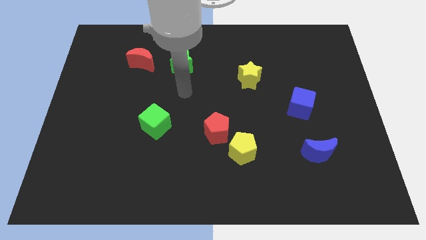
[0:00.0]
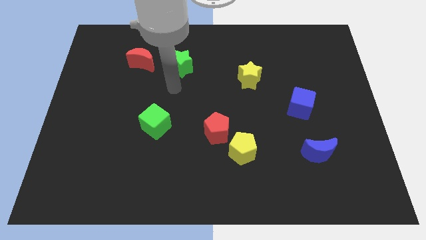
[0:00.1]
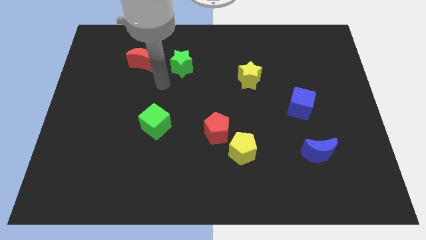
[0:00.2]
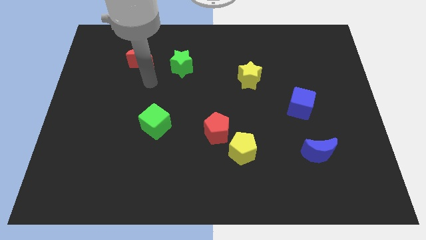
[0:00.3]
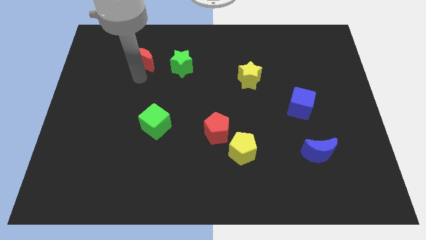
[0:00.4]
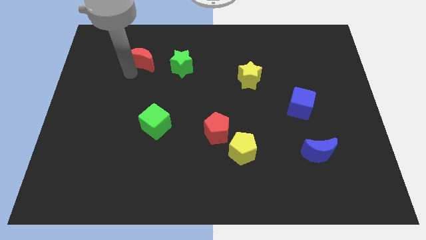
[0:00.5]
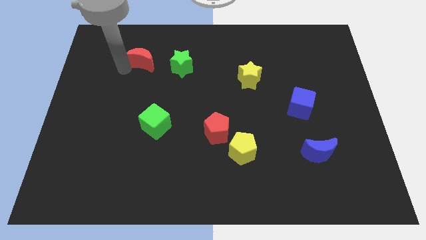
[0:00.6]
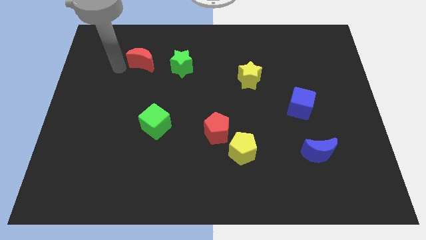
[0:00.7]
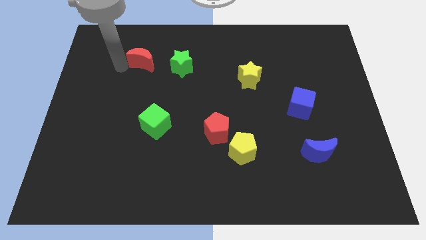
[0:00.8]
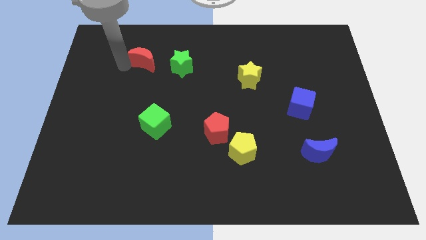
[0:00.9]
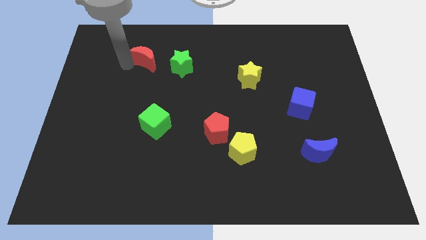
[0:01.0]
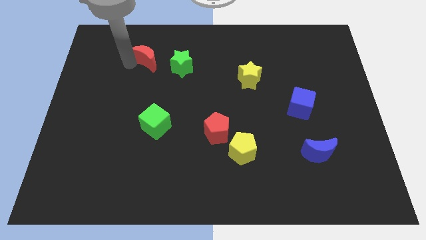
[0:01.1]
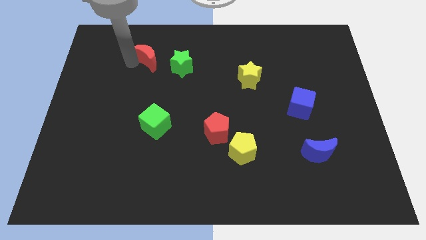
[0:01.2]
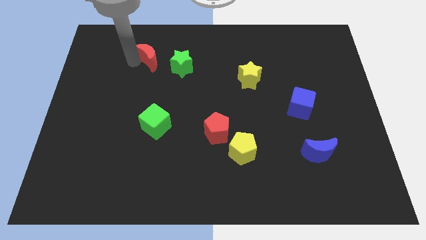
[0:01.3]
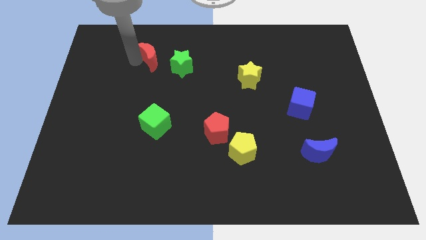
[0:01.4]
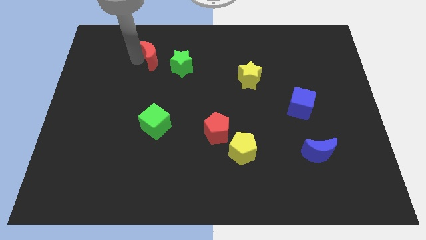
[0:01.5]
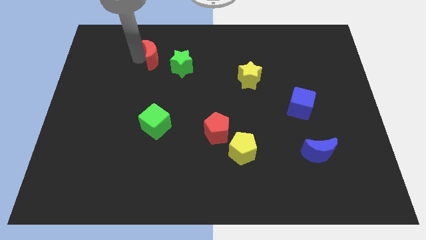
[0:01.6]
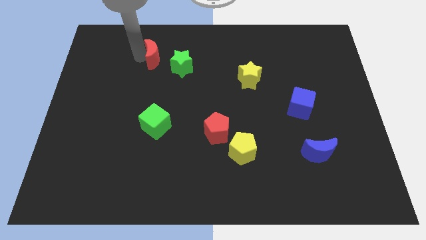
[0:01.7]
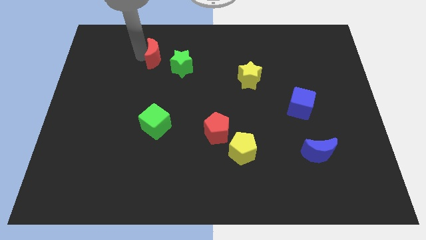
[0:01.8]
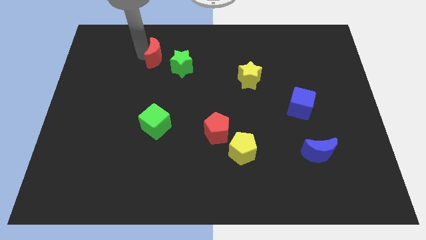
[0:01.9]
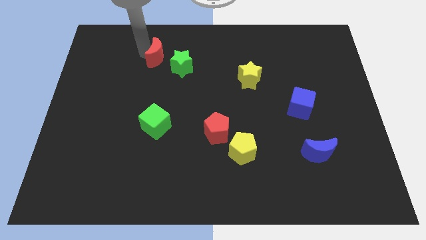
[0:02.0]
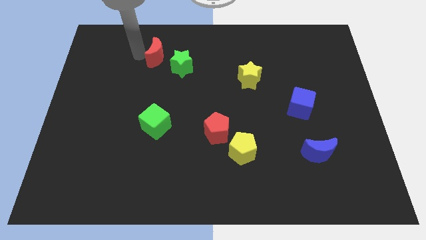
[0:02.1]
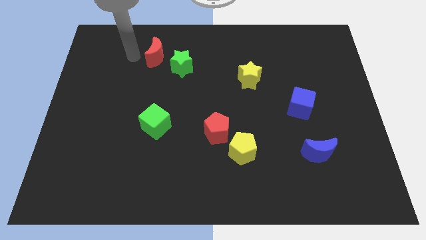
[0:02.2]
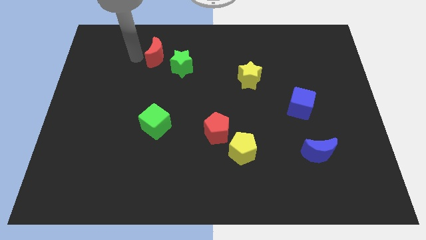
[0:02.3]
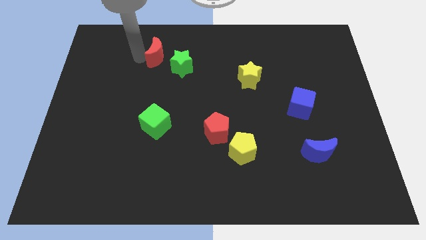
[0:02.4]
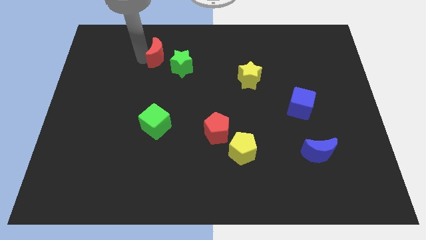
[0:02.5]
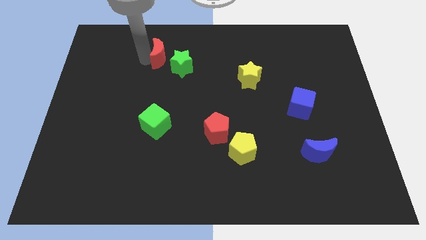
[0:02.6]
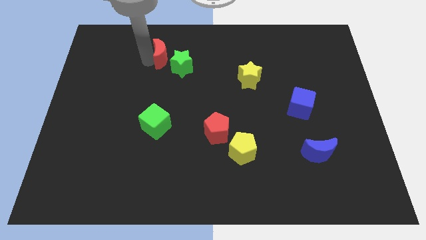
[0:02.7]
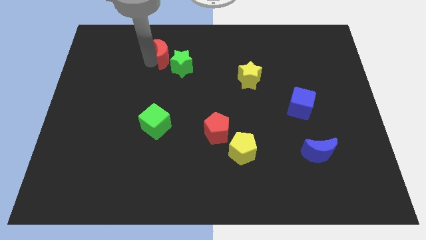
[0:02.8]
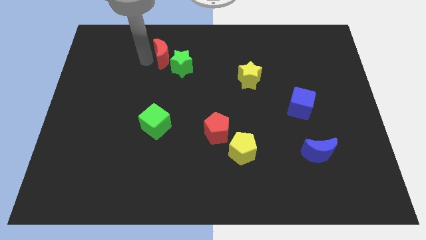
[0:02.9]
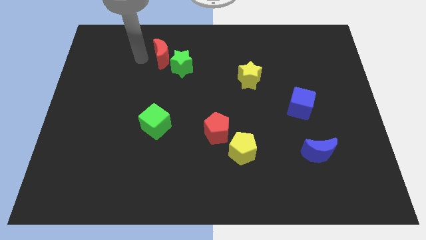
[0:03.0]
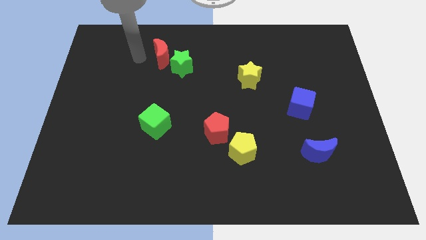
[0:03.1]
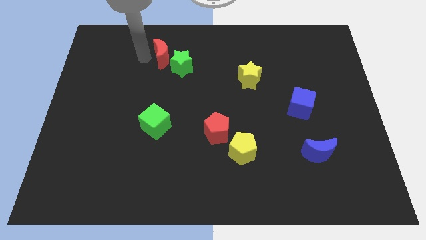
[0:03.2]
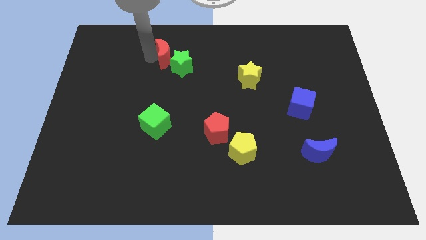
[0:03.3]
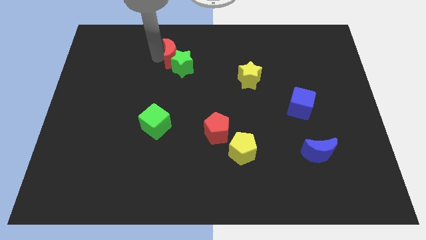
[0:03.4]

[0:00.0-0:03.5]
slightly push the red moon to the right

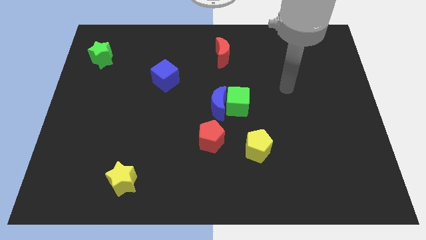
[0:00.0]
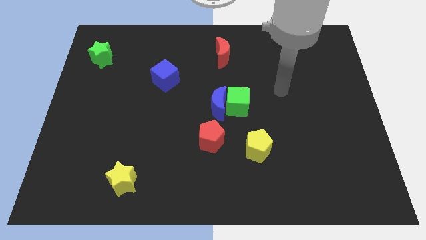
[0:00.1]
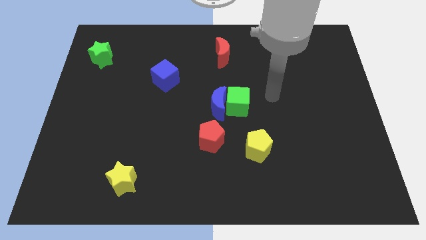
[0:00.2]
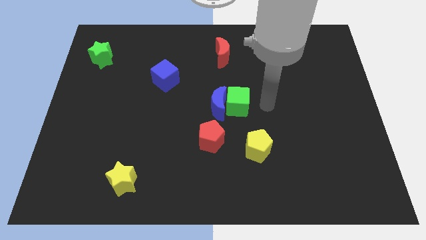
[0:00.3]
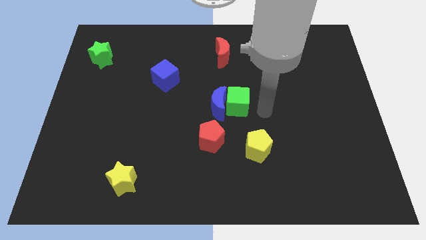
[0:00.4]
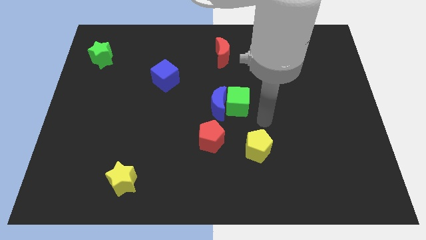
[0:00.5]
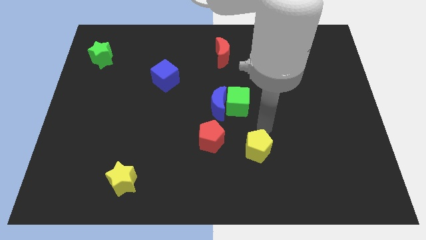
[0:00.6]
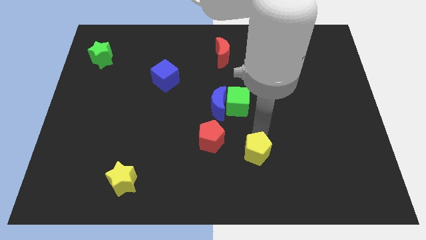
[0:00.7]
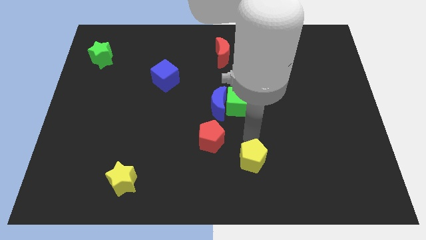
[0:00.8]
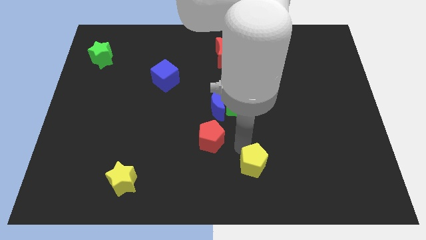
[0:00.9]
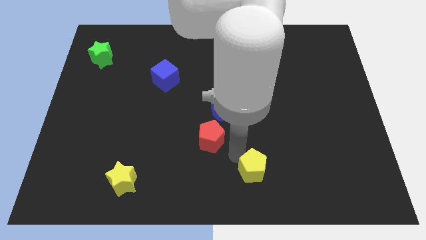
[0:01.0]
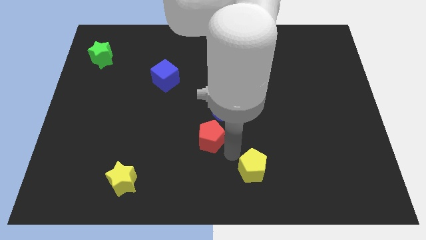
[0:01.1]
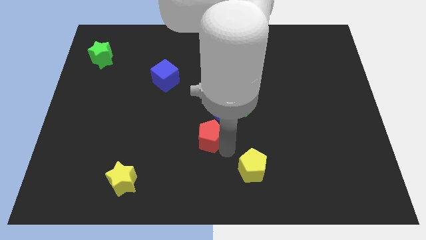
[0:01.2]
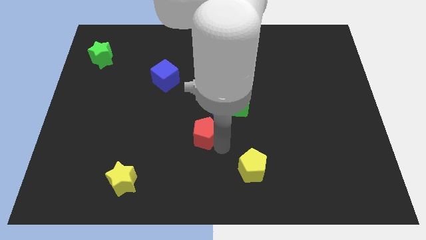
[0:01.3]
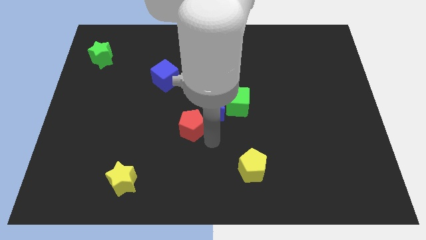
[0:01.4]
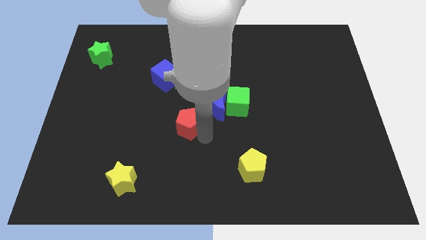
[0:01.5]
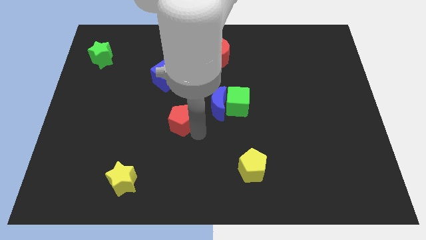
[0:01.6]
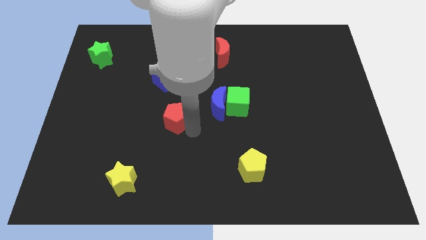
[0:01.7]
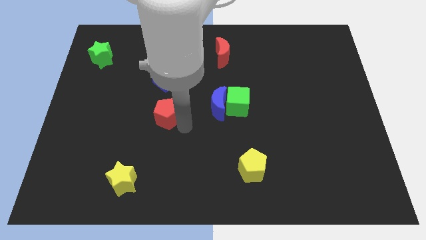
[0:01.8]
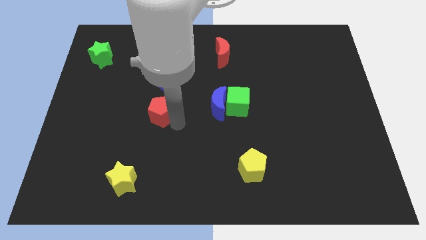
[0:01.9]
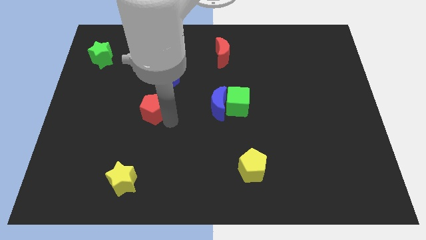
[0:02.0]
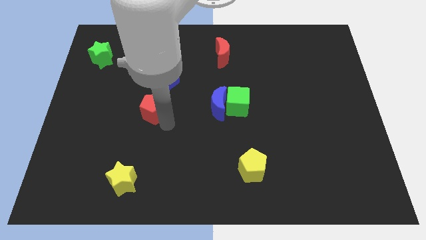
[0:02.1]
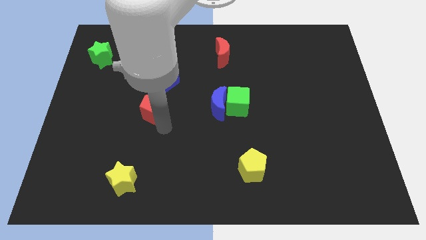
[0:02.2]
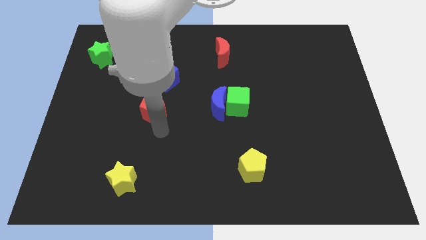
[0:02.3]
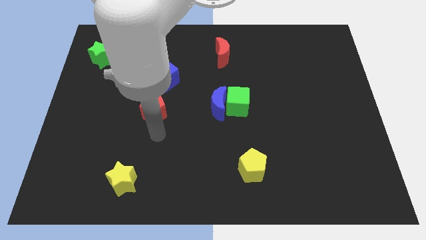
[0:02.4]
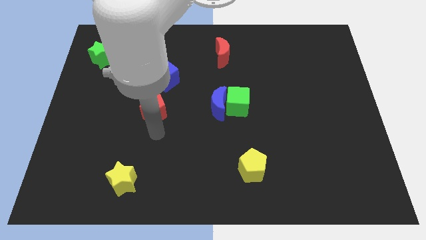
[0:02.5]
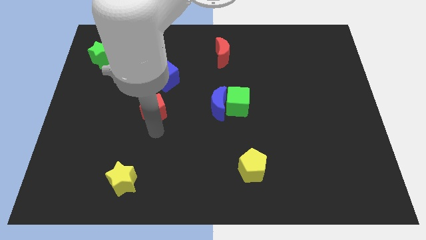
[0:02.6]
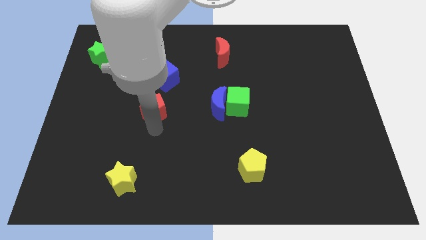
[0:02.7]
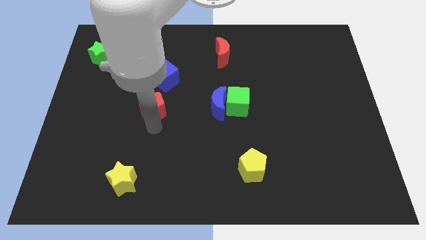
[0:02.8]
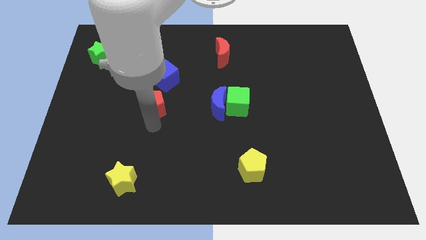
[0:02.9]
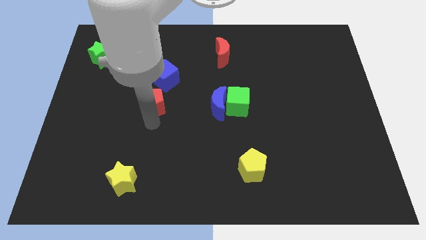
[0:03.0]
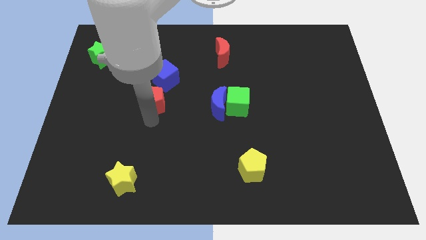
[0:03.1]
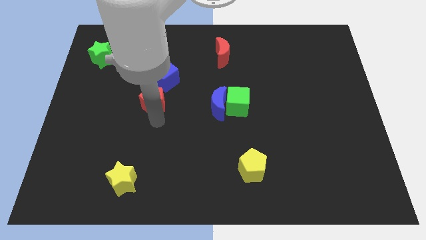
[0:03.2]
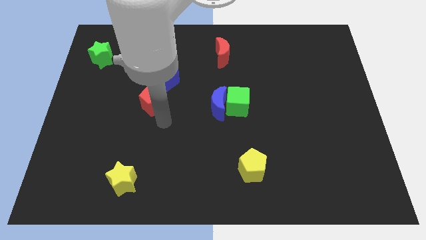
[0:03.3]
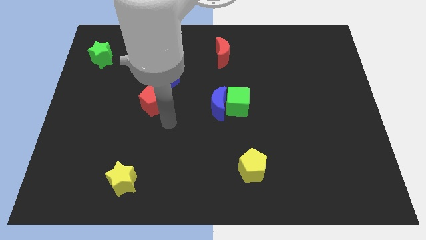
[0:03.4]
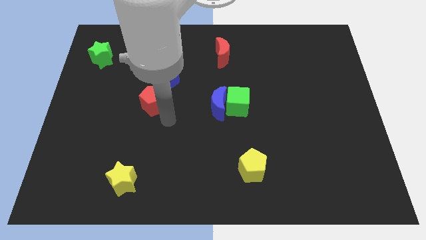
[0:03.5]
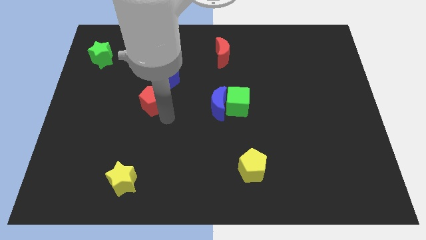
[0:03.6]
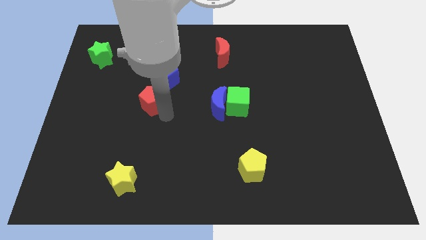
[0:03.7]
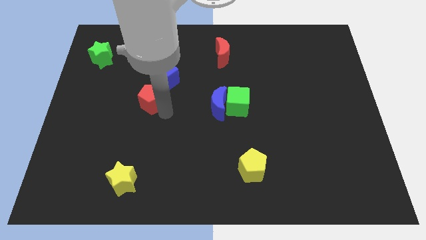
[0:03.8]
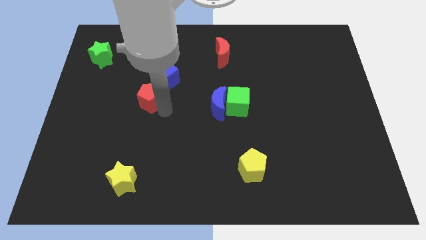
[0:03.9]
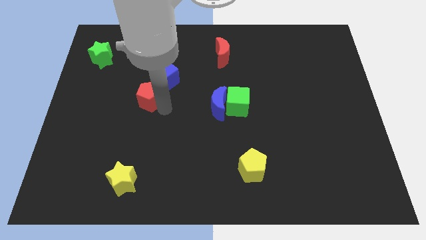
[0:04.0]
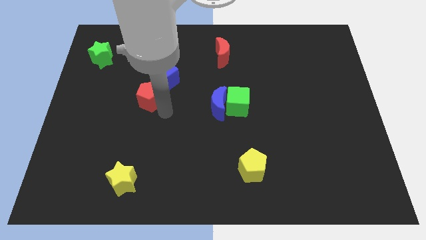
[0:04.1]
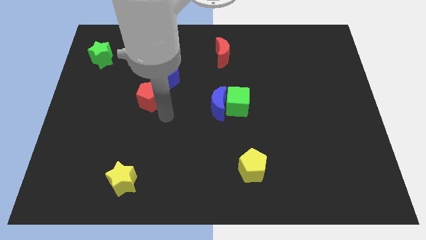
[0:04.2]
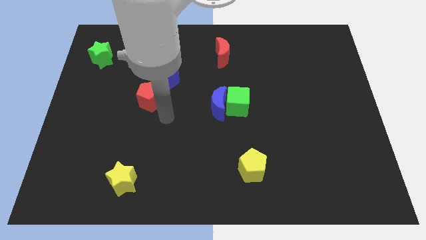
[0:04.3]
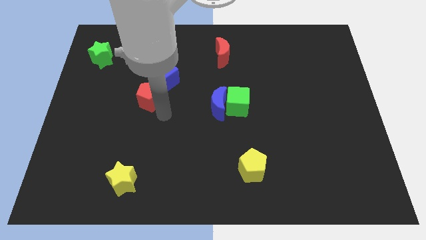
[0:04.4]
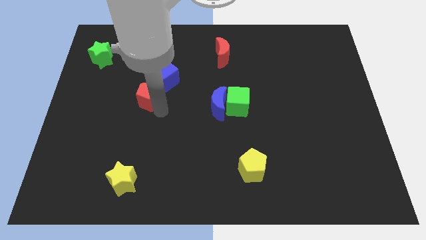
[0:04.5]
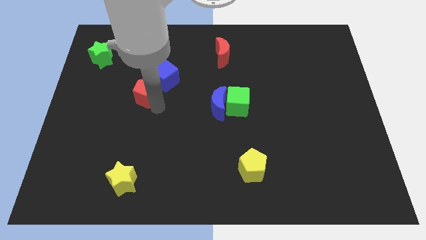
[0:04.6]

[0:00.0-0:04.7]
slide the red pentagon upwards and left diagonally
